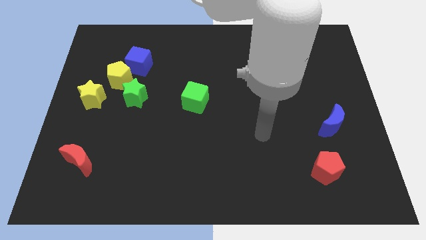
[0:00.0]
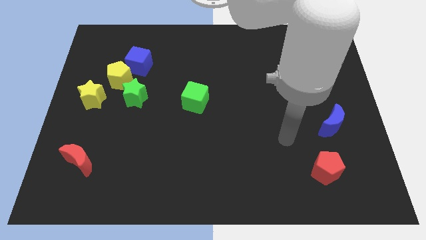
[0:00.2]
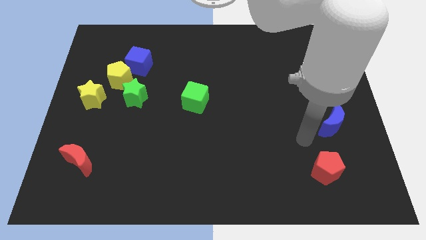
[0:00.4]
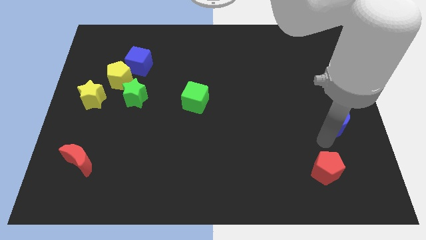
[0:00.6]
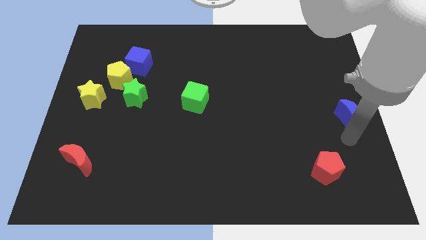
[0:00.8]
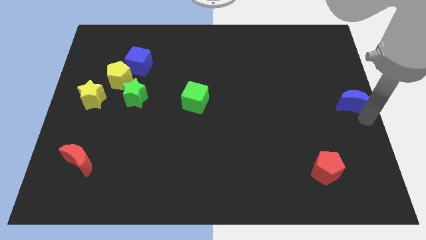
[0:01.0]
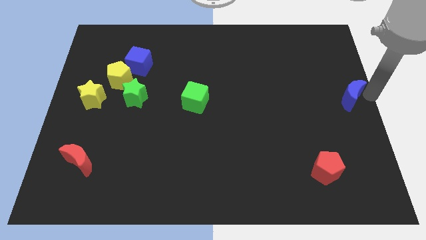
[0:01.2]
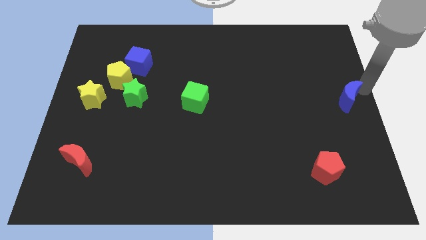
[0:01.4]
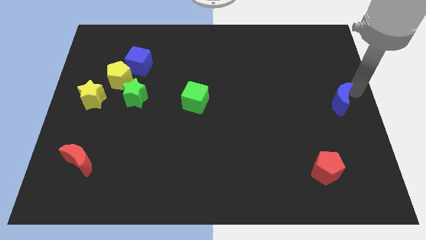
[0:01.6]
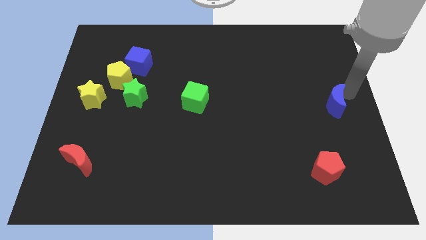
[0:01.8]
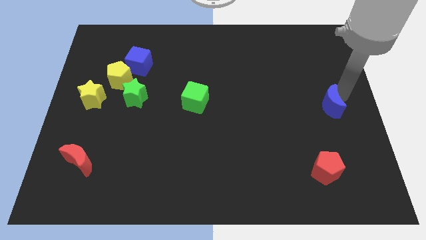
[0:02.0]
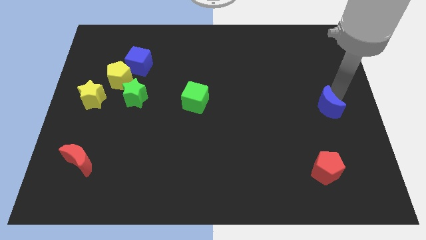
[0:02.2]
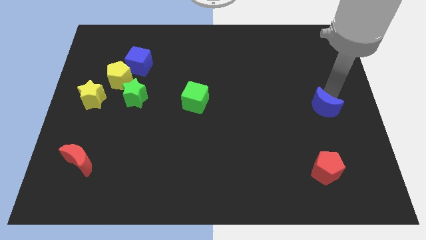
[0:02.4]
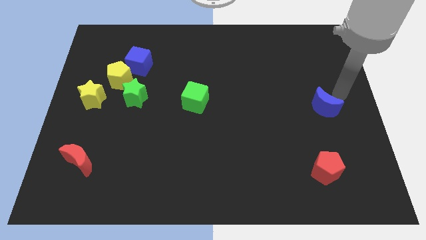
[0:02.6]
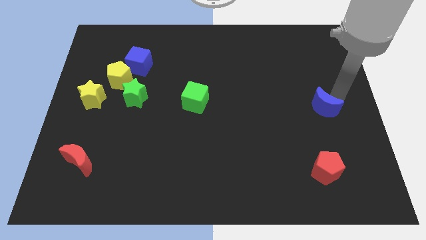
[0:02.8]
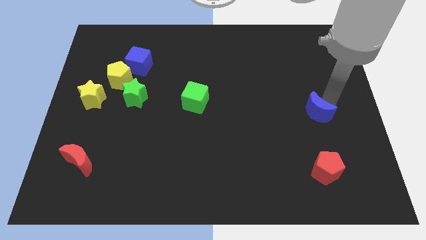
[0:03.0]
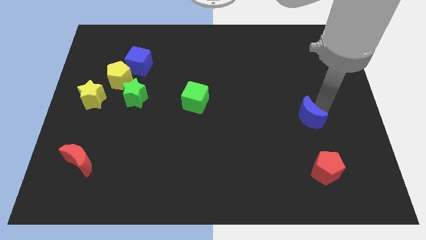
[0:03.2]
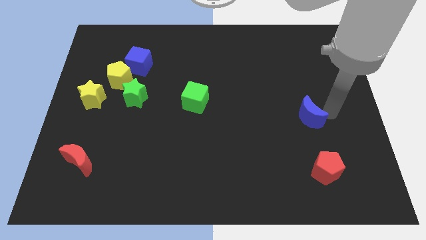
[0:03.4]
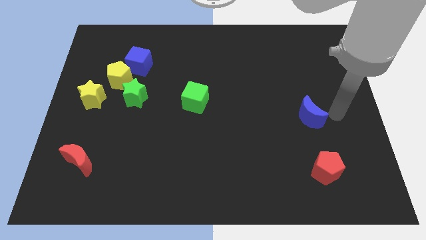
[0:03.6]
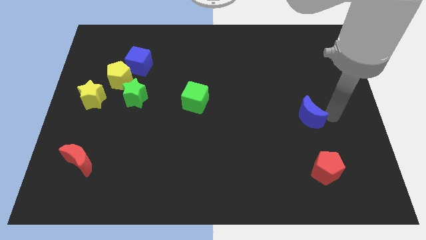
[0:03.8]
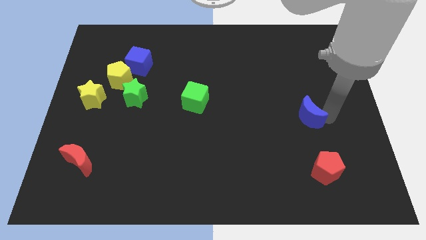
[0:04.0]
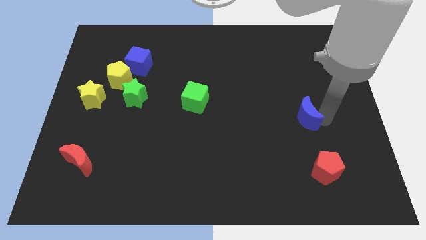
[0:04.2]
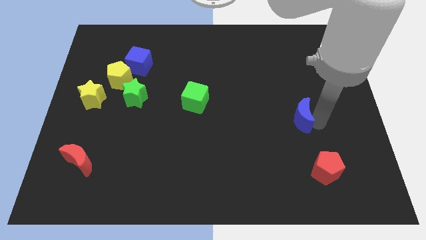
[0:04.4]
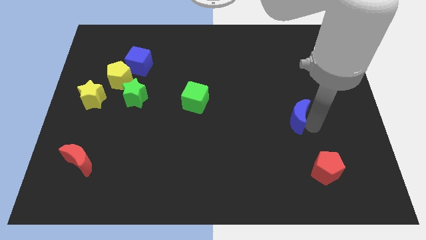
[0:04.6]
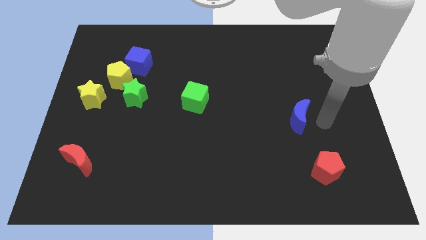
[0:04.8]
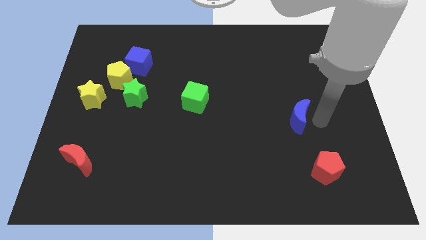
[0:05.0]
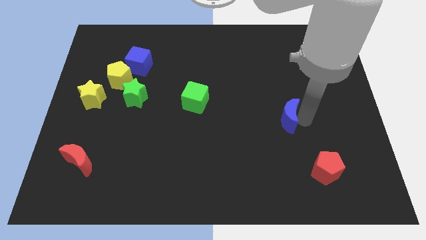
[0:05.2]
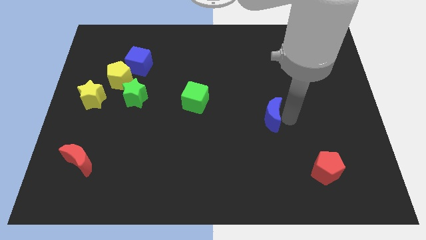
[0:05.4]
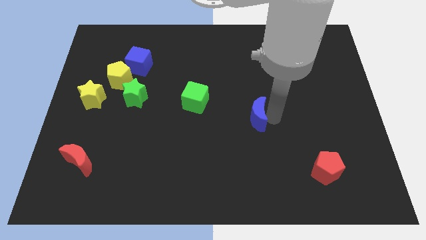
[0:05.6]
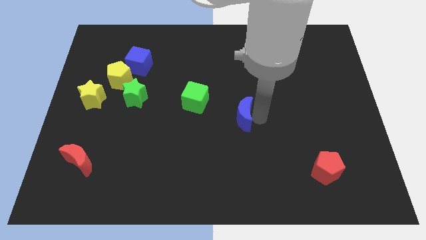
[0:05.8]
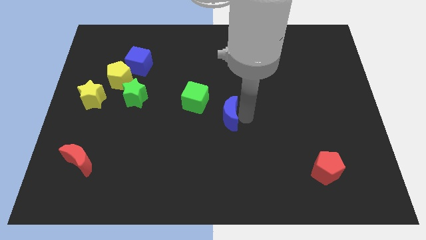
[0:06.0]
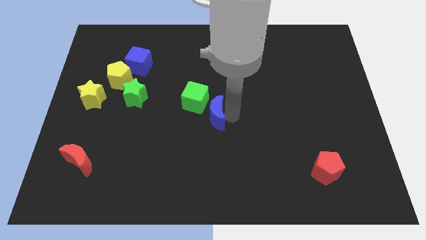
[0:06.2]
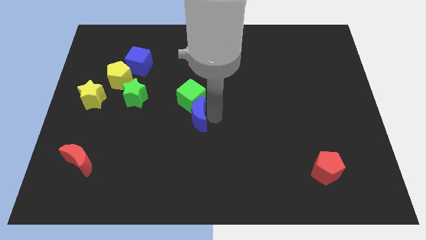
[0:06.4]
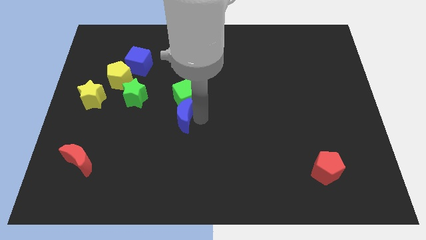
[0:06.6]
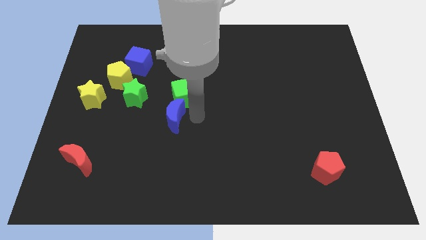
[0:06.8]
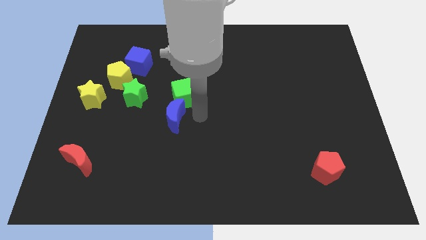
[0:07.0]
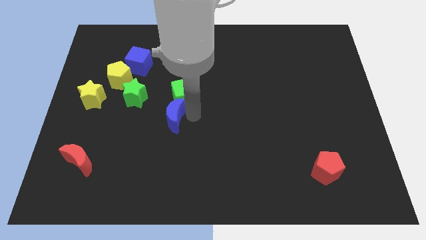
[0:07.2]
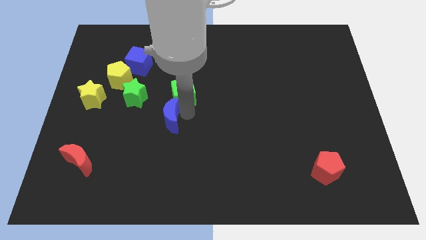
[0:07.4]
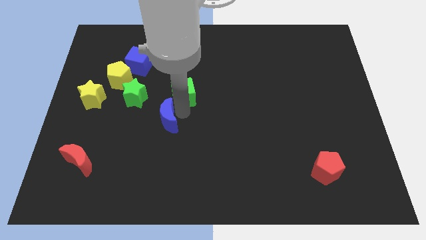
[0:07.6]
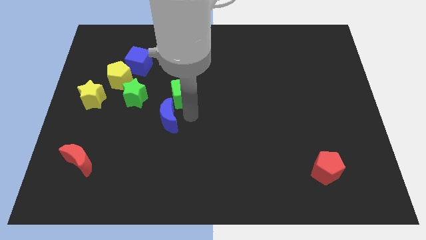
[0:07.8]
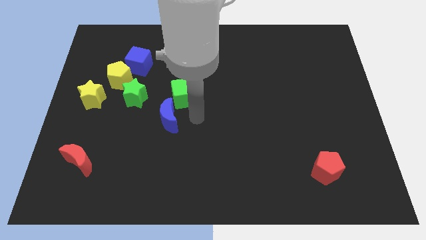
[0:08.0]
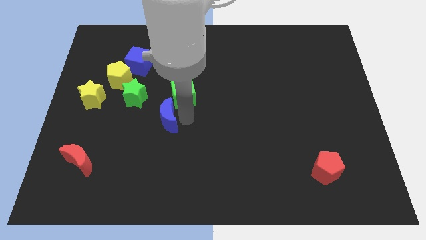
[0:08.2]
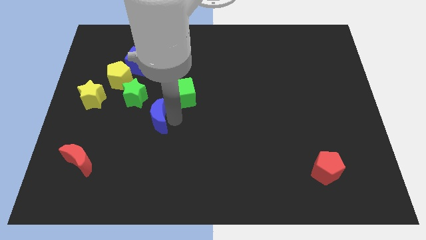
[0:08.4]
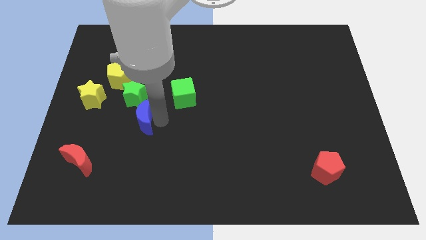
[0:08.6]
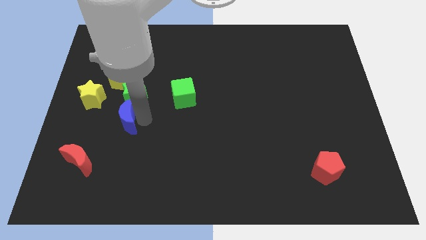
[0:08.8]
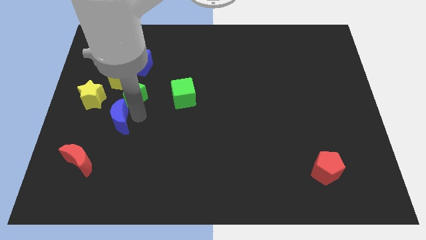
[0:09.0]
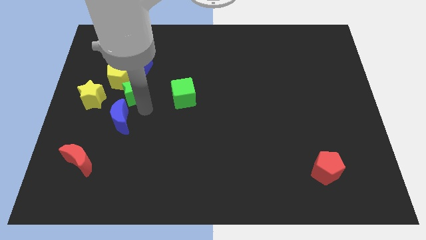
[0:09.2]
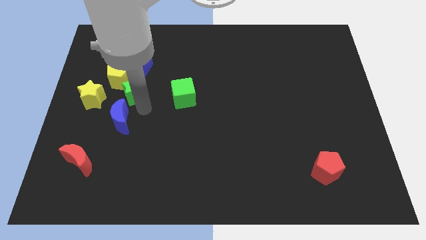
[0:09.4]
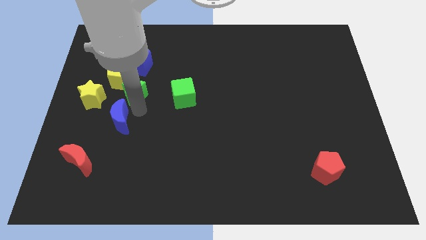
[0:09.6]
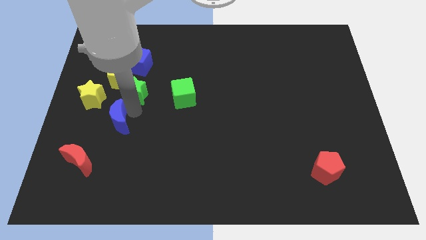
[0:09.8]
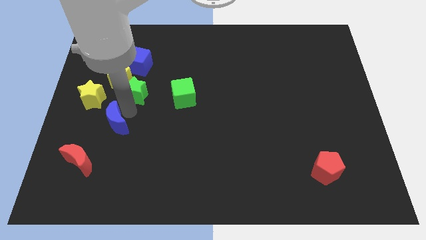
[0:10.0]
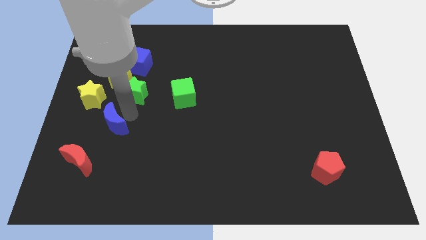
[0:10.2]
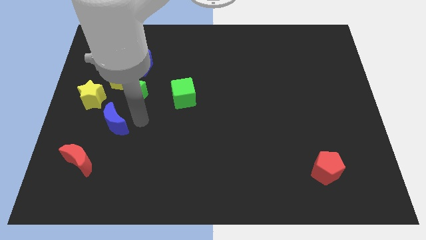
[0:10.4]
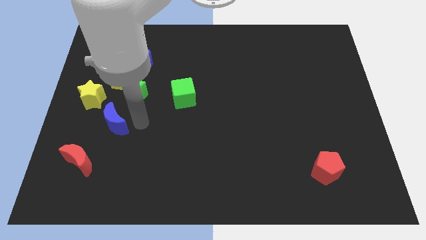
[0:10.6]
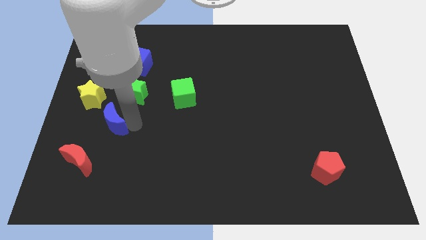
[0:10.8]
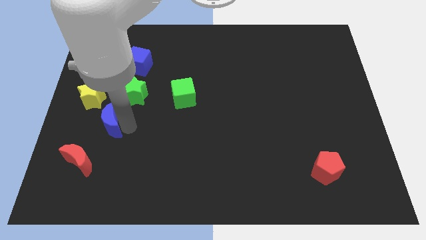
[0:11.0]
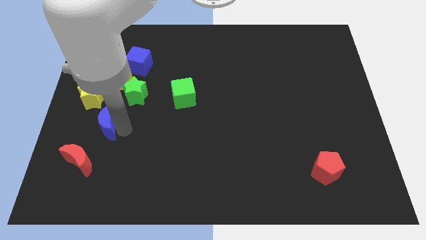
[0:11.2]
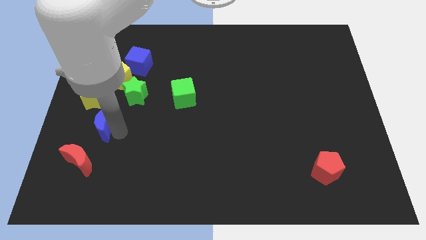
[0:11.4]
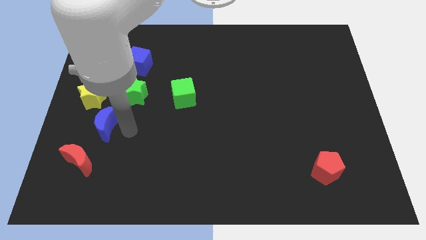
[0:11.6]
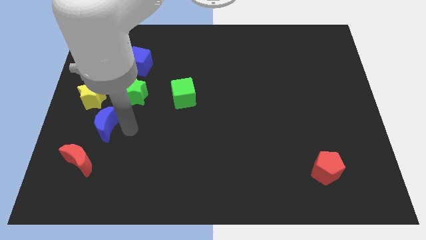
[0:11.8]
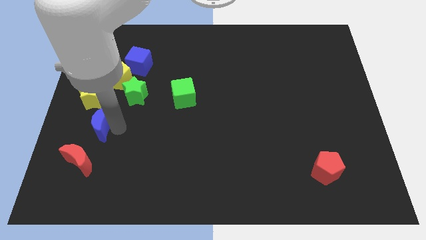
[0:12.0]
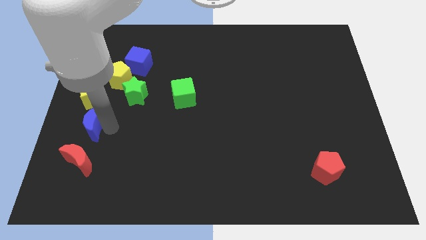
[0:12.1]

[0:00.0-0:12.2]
push the blue moon to the left side
